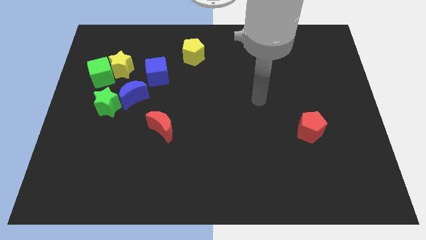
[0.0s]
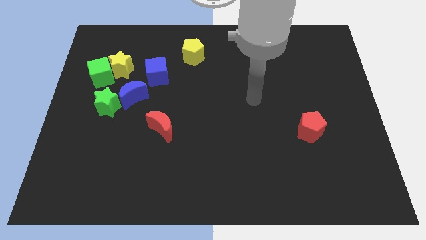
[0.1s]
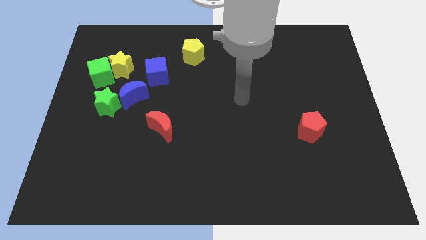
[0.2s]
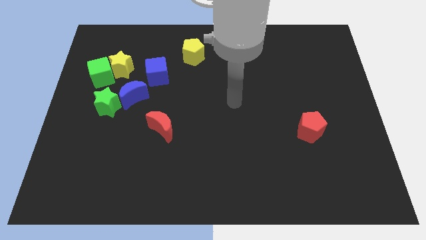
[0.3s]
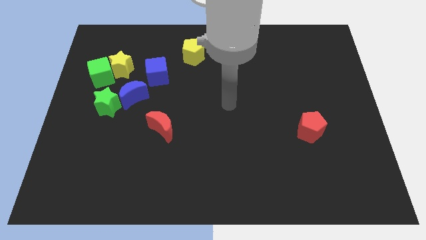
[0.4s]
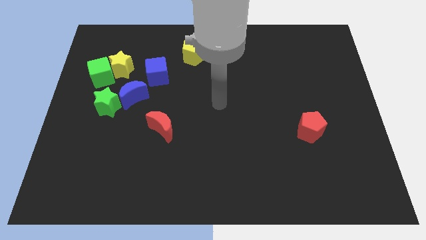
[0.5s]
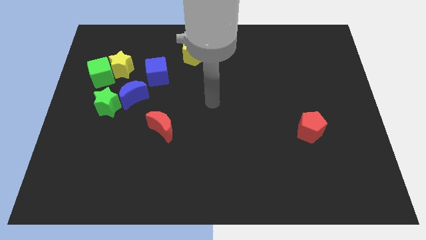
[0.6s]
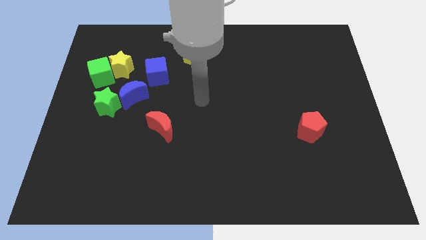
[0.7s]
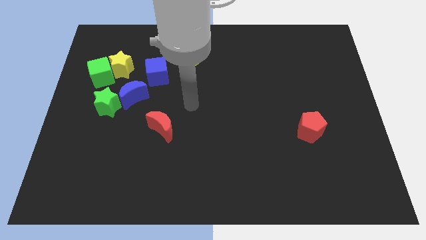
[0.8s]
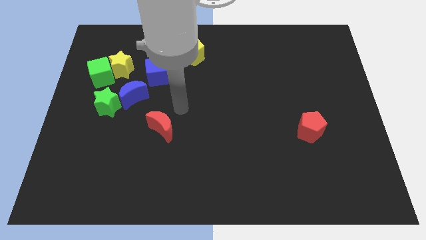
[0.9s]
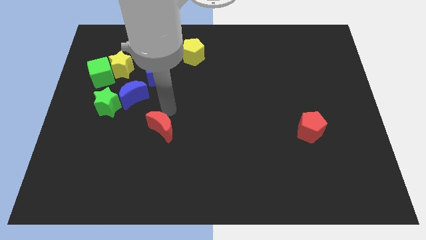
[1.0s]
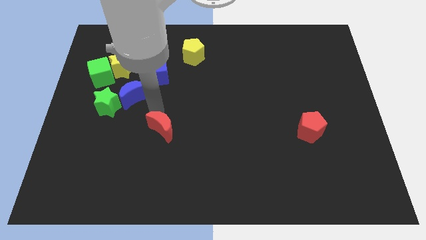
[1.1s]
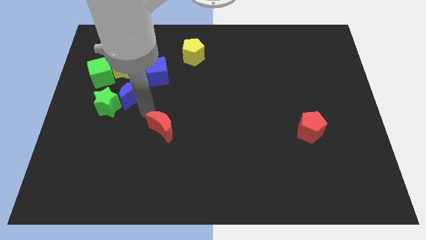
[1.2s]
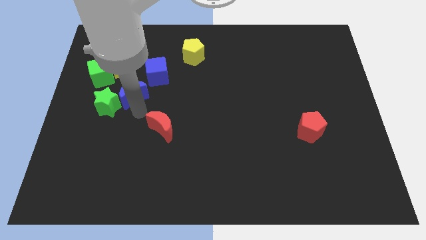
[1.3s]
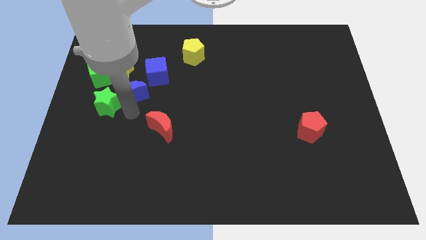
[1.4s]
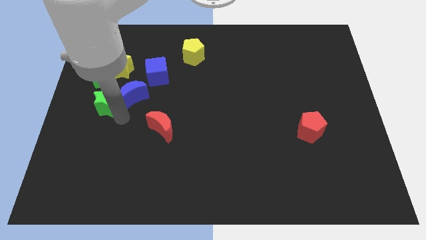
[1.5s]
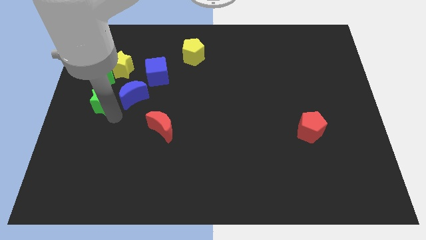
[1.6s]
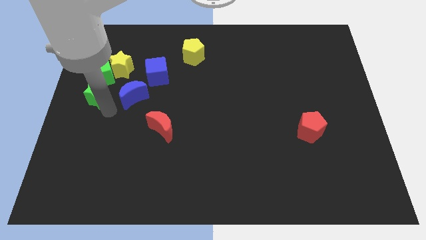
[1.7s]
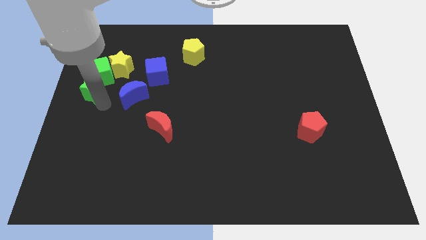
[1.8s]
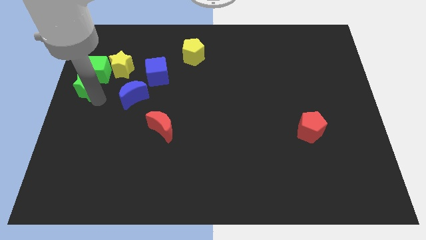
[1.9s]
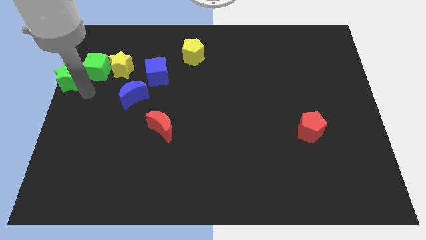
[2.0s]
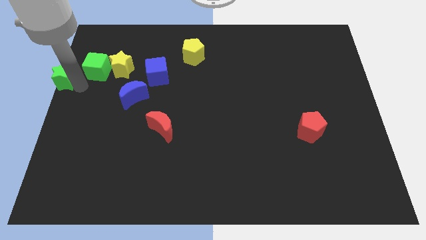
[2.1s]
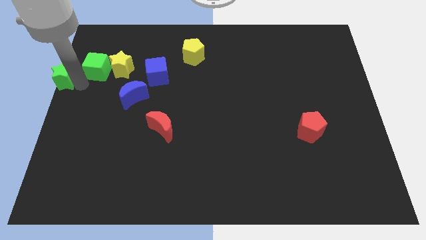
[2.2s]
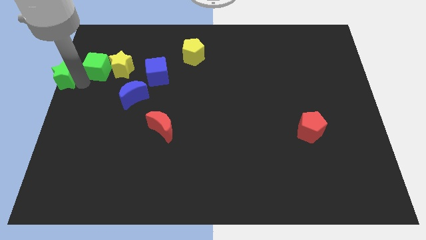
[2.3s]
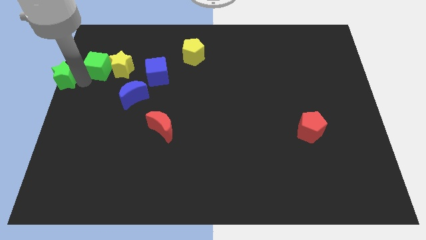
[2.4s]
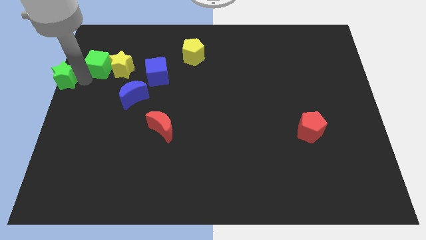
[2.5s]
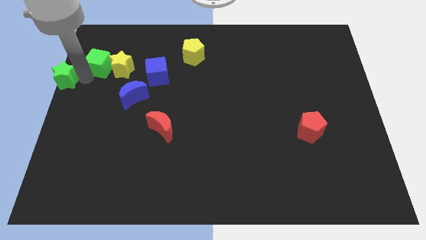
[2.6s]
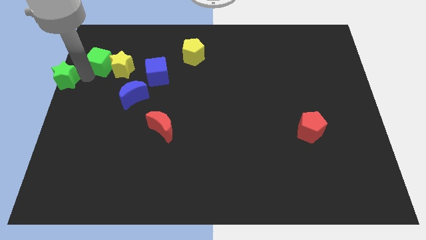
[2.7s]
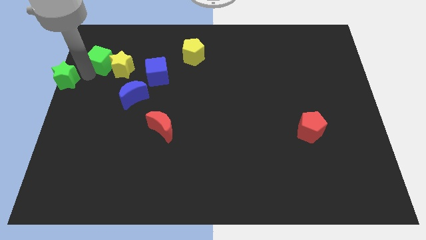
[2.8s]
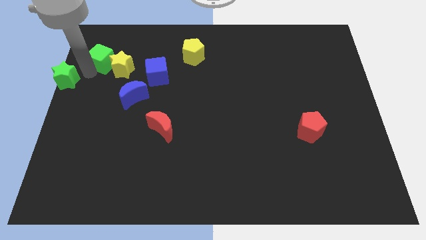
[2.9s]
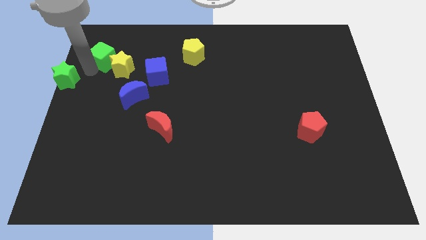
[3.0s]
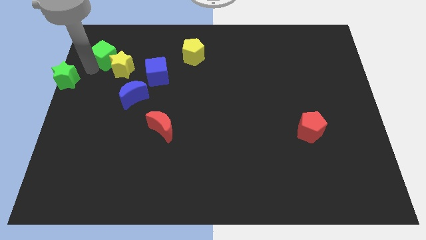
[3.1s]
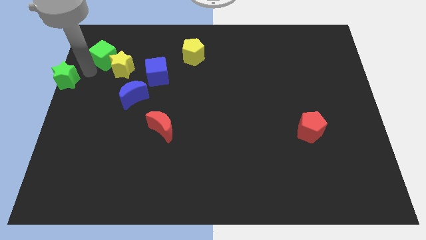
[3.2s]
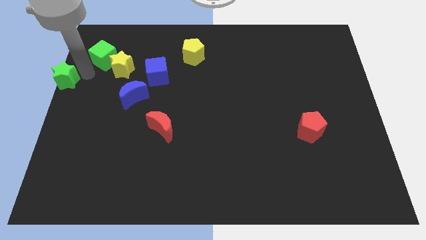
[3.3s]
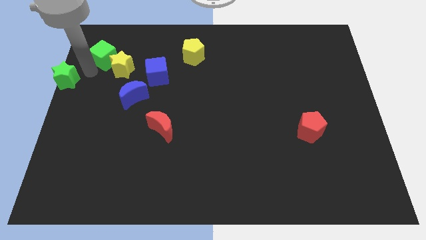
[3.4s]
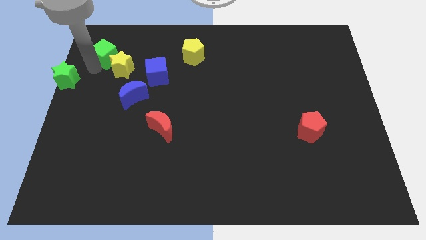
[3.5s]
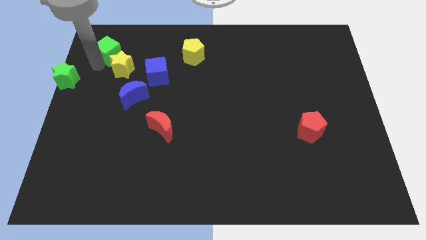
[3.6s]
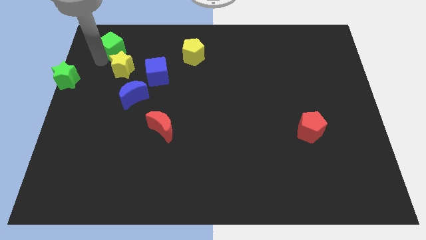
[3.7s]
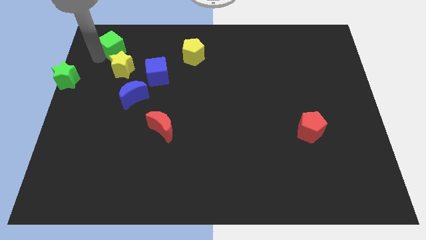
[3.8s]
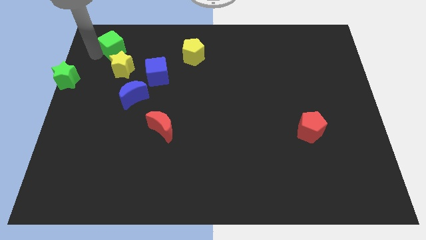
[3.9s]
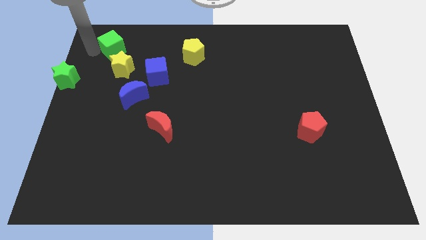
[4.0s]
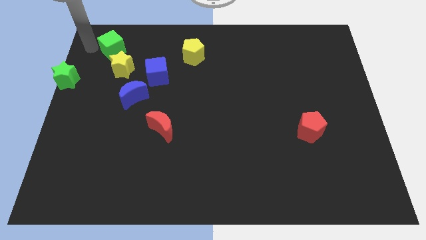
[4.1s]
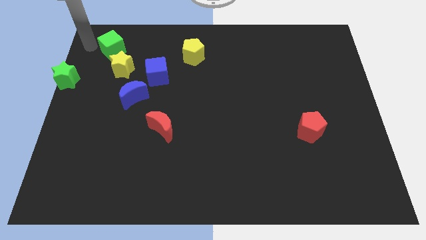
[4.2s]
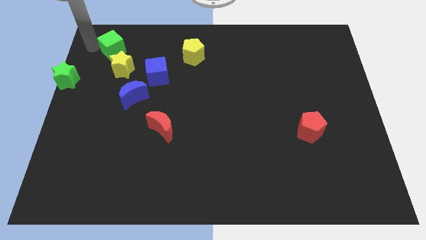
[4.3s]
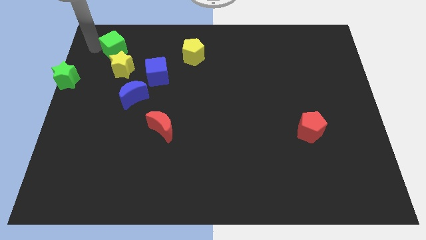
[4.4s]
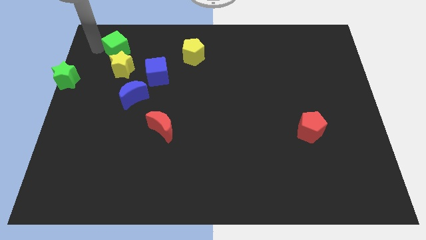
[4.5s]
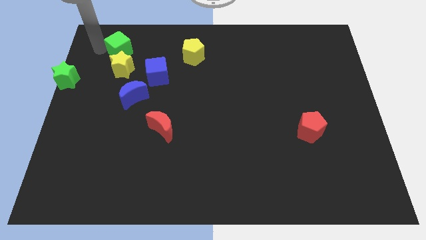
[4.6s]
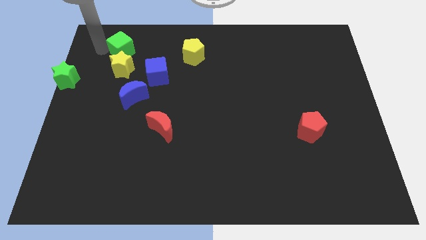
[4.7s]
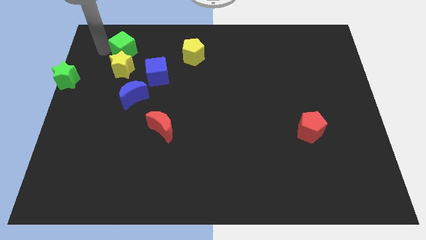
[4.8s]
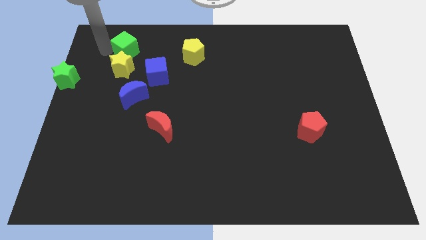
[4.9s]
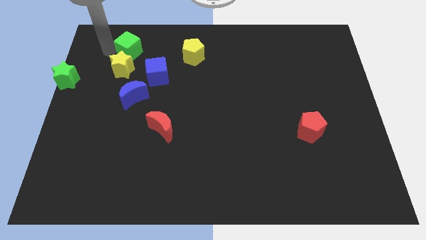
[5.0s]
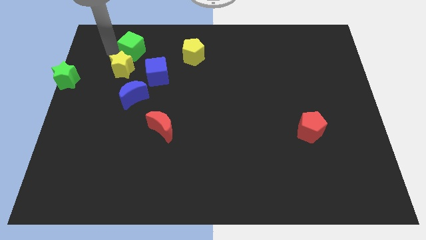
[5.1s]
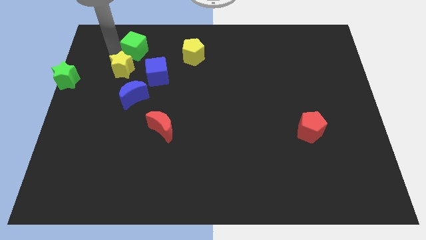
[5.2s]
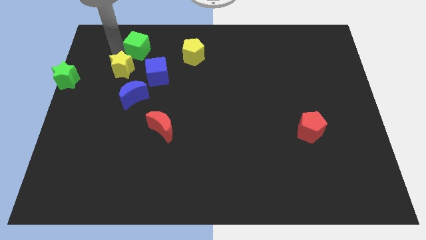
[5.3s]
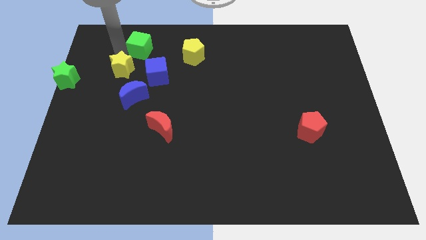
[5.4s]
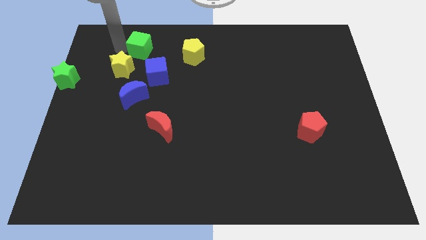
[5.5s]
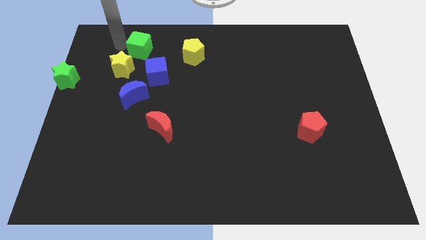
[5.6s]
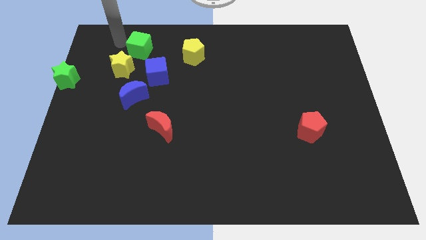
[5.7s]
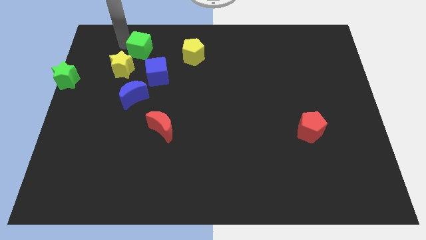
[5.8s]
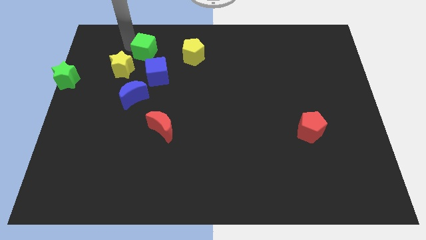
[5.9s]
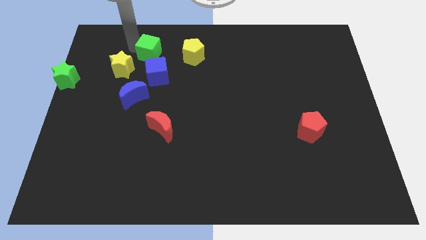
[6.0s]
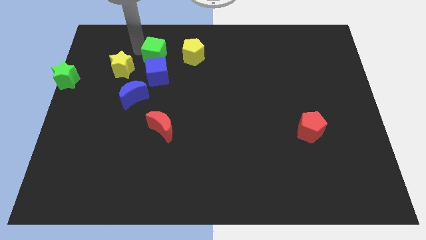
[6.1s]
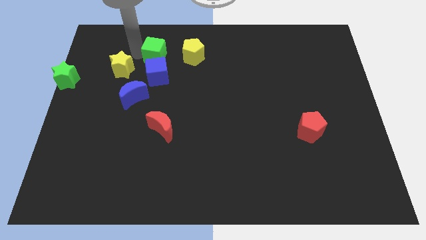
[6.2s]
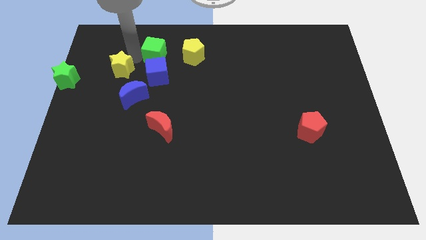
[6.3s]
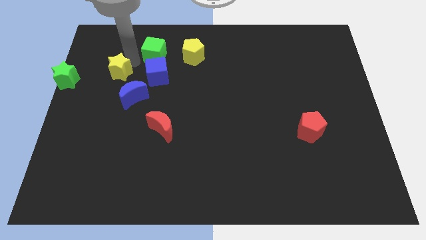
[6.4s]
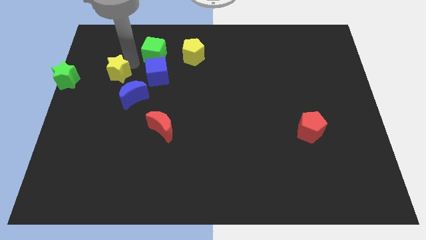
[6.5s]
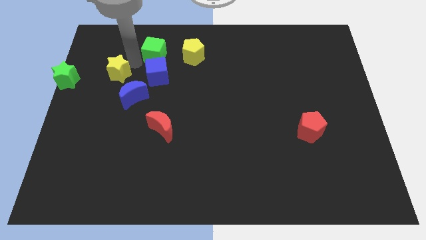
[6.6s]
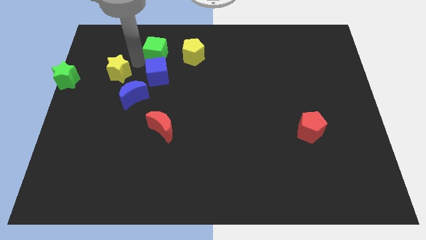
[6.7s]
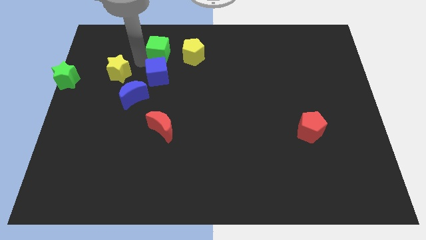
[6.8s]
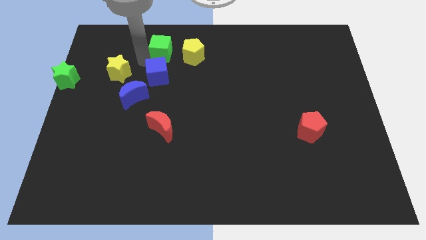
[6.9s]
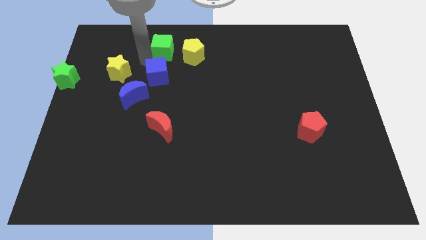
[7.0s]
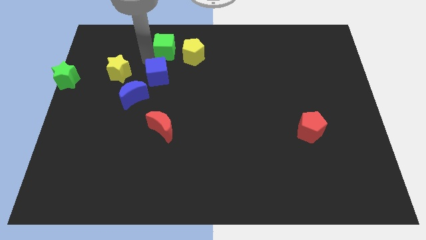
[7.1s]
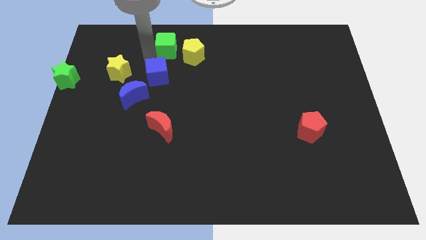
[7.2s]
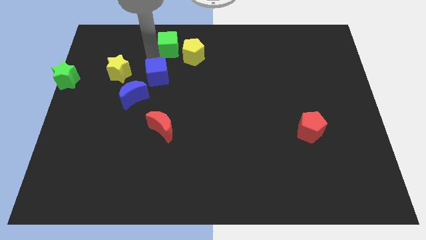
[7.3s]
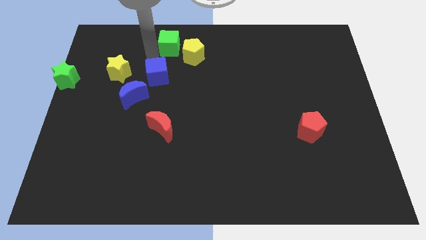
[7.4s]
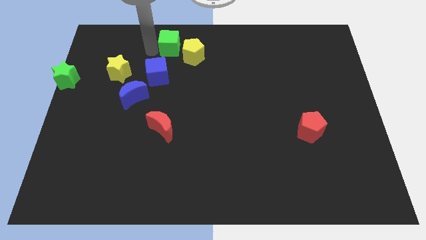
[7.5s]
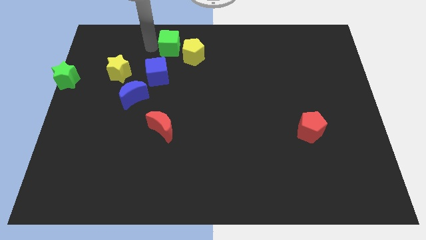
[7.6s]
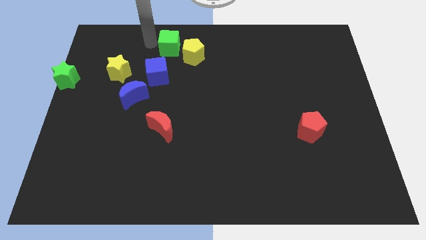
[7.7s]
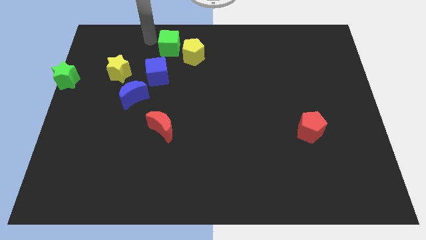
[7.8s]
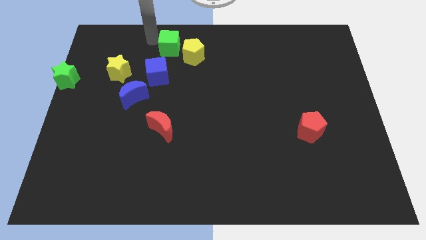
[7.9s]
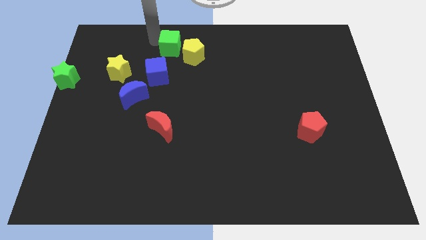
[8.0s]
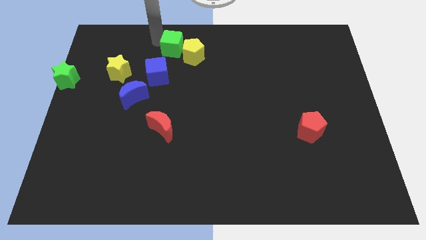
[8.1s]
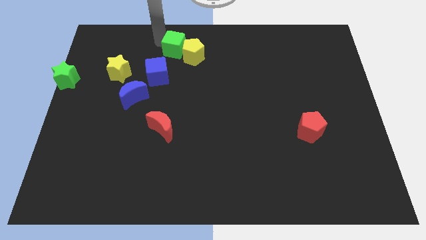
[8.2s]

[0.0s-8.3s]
put the green cube close to the yellow pentagon
